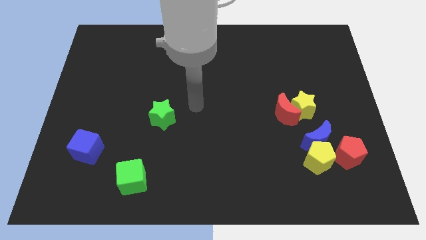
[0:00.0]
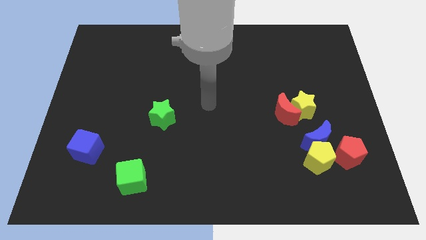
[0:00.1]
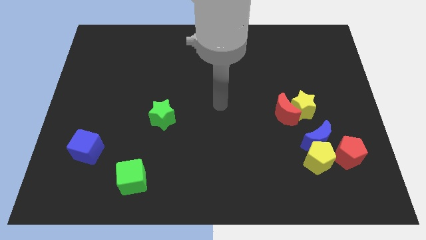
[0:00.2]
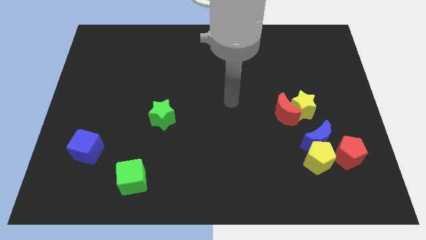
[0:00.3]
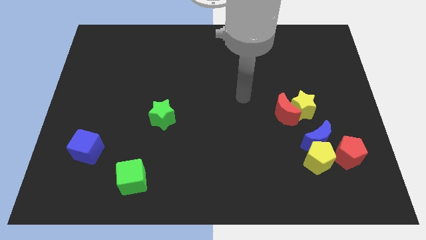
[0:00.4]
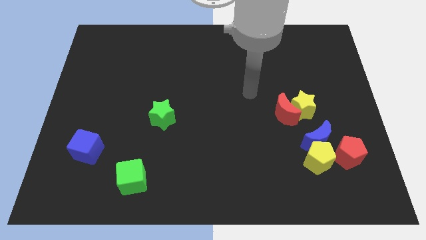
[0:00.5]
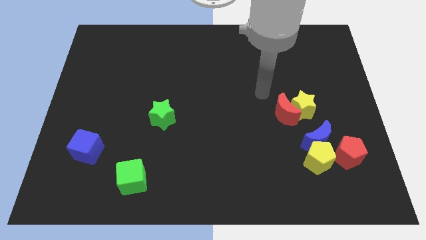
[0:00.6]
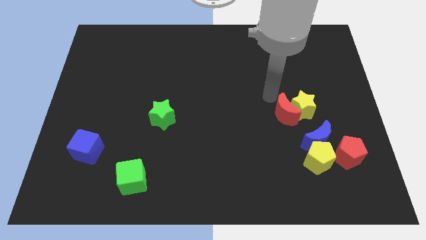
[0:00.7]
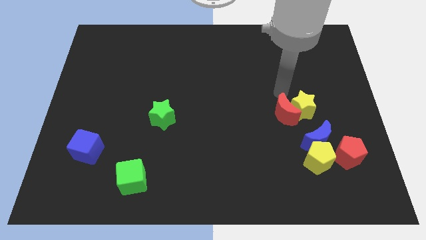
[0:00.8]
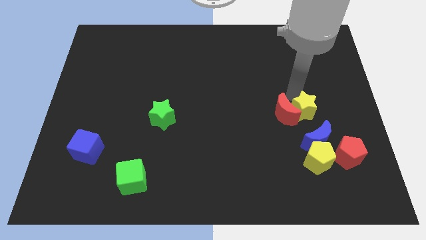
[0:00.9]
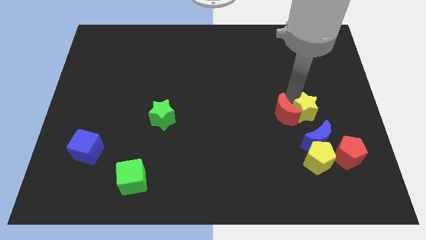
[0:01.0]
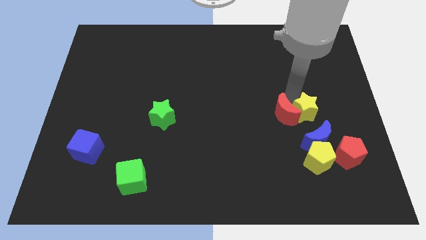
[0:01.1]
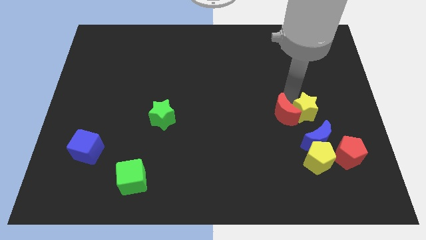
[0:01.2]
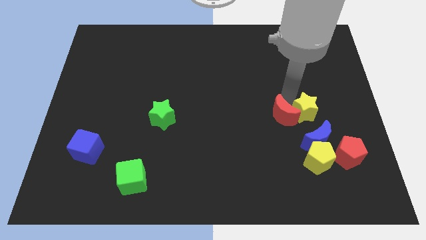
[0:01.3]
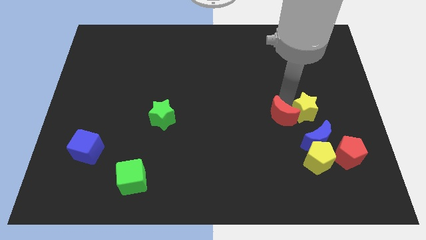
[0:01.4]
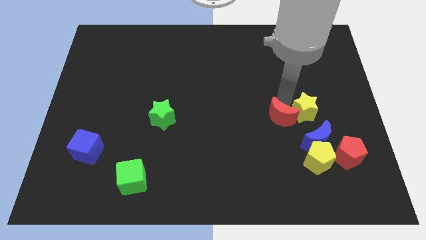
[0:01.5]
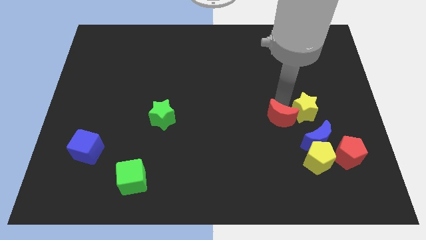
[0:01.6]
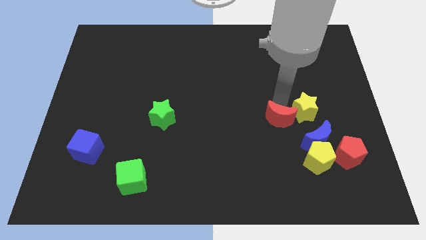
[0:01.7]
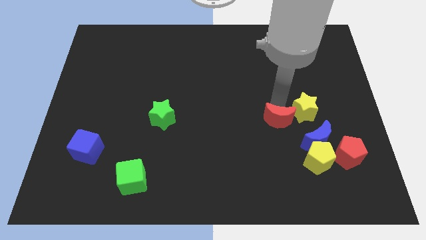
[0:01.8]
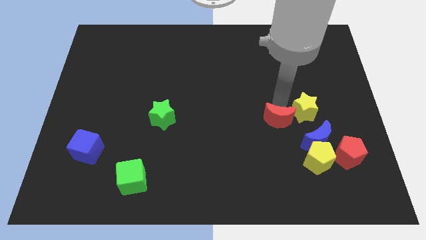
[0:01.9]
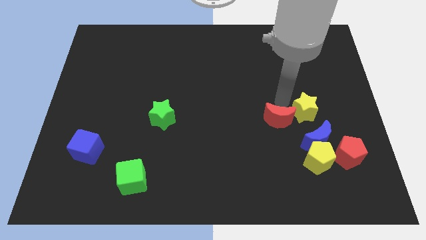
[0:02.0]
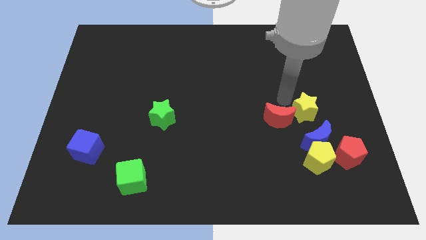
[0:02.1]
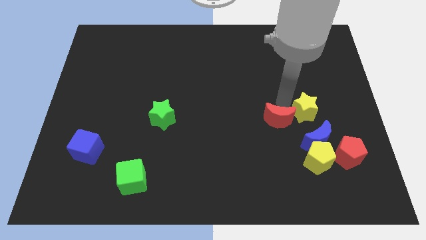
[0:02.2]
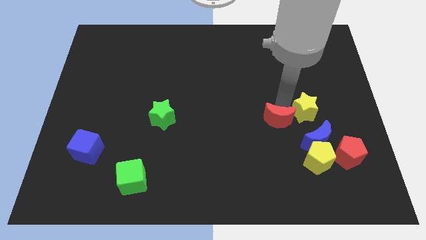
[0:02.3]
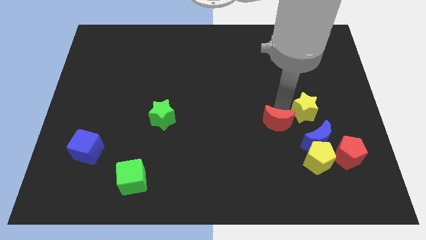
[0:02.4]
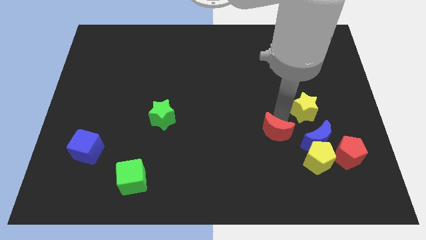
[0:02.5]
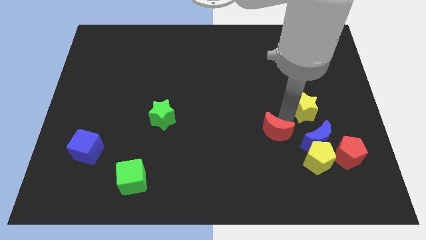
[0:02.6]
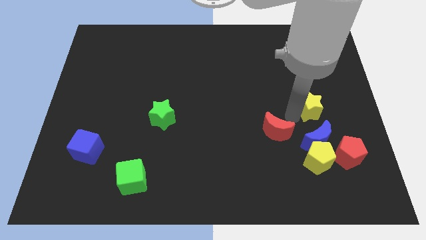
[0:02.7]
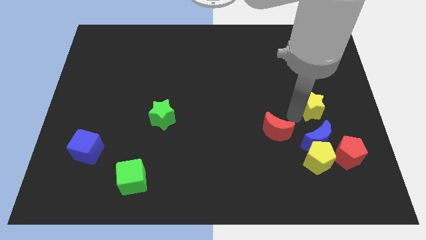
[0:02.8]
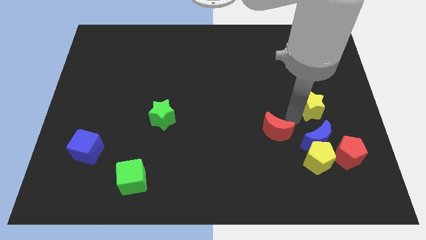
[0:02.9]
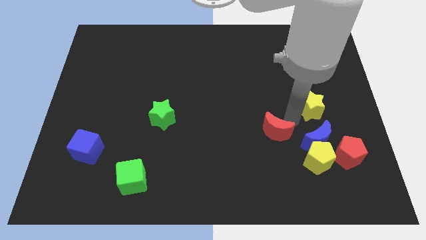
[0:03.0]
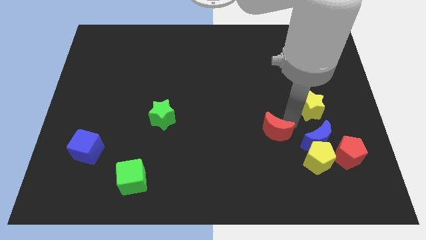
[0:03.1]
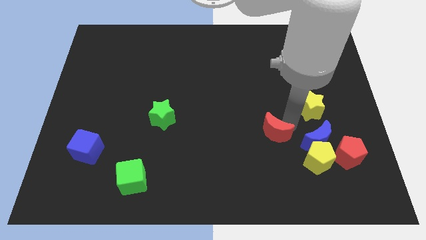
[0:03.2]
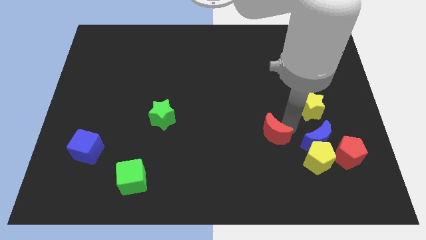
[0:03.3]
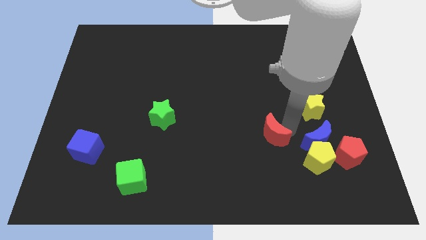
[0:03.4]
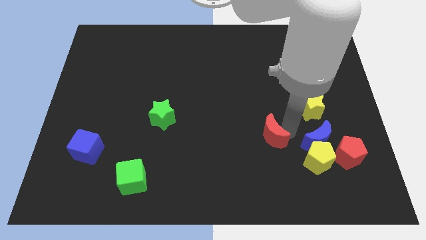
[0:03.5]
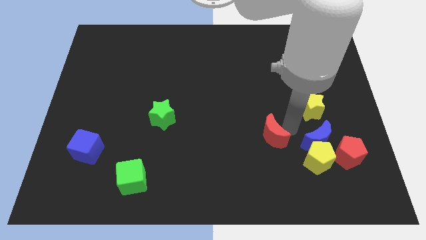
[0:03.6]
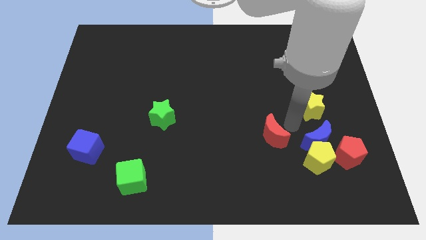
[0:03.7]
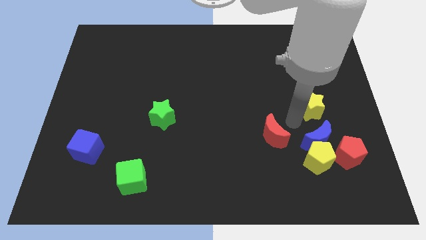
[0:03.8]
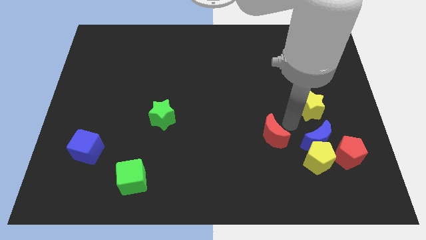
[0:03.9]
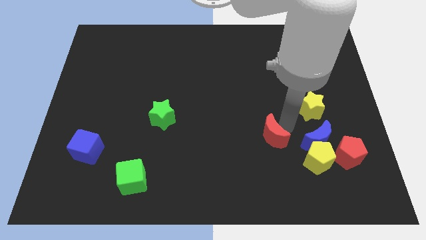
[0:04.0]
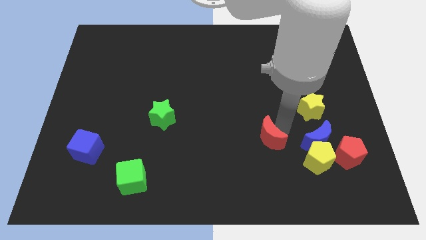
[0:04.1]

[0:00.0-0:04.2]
slide the red moon a bit downwards and left

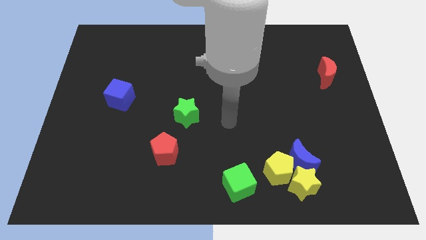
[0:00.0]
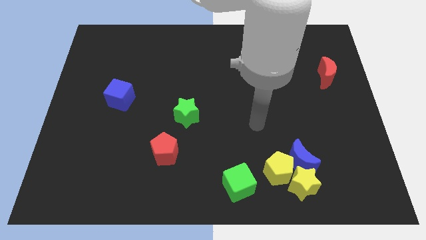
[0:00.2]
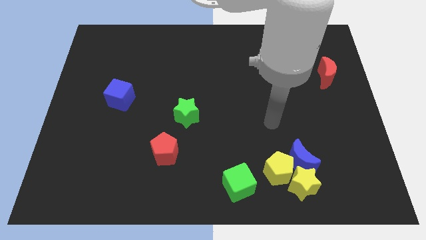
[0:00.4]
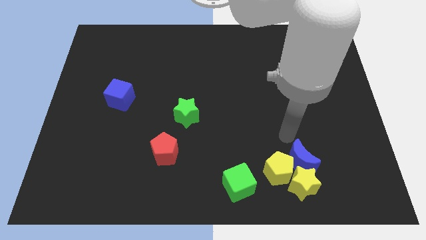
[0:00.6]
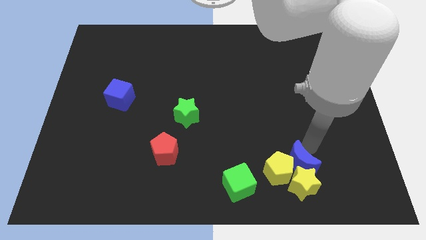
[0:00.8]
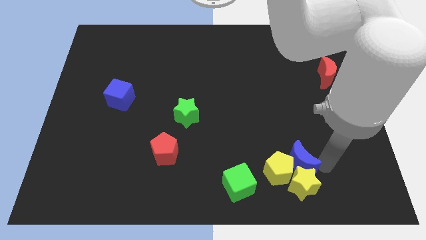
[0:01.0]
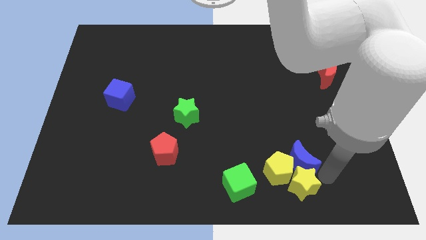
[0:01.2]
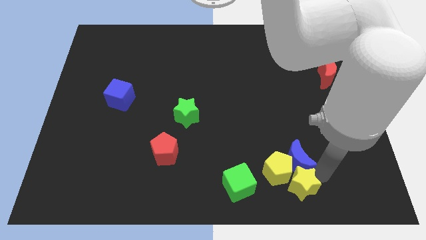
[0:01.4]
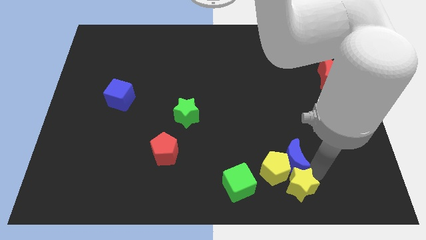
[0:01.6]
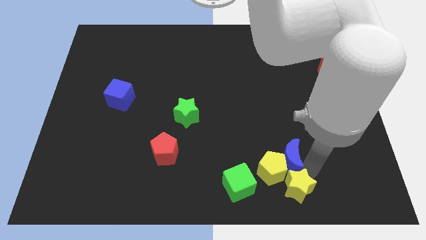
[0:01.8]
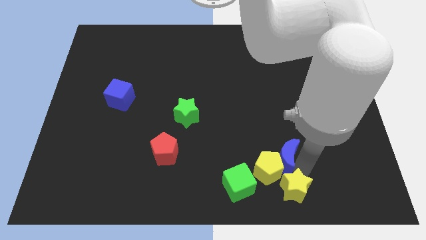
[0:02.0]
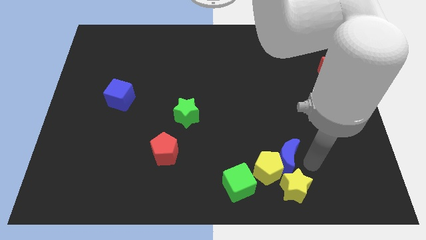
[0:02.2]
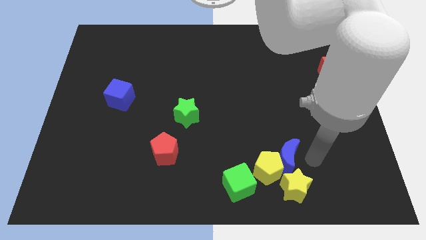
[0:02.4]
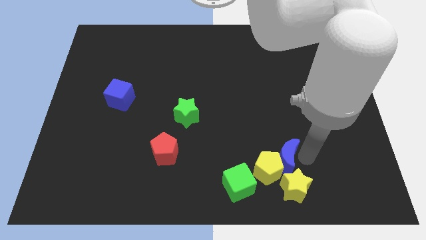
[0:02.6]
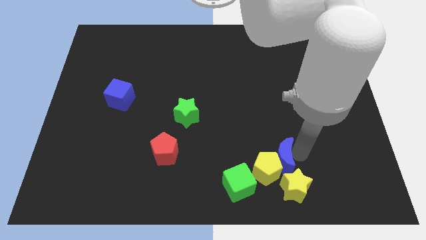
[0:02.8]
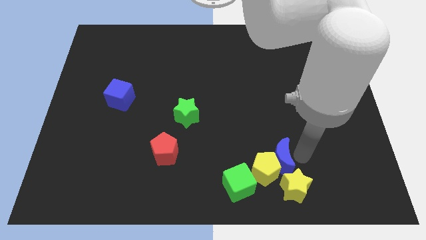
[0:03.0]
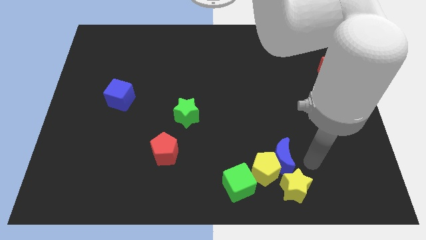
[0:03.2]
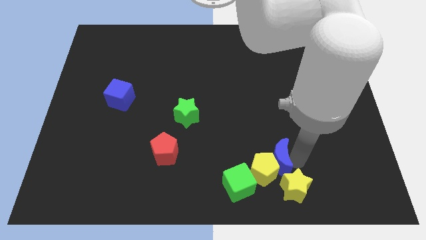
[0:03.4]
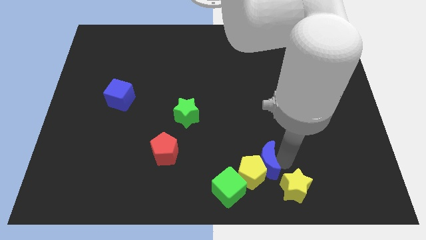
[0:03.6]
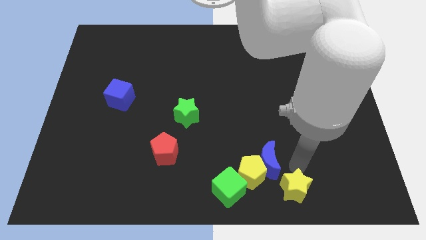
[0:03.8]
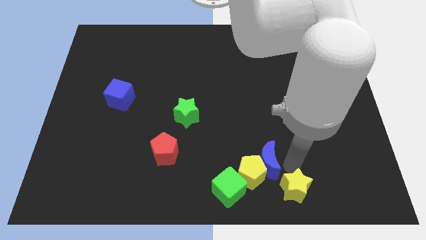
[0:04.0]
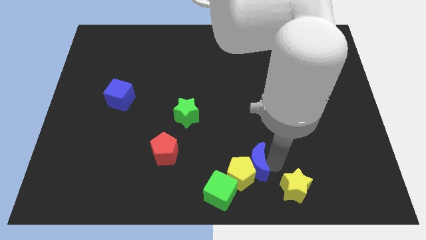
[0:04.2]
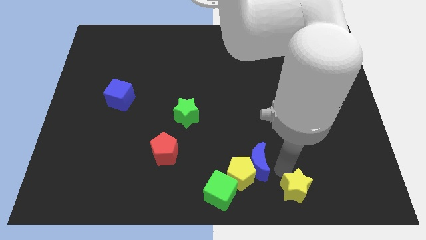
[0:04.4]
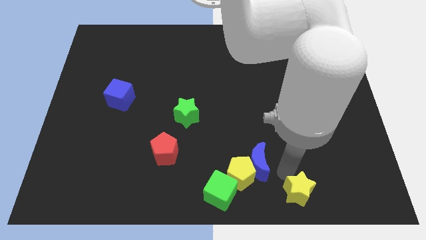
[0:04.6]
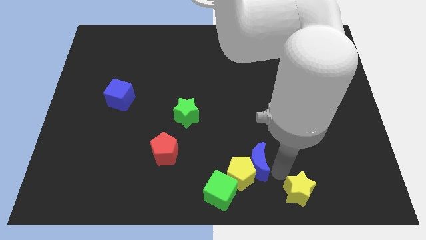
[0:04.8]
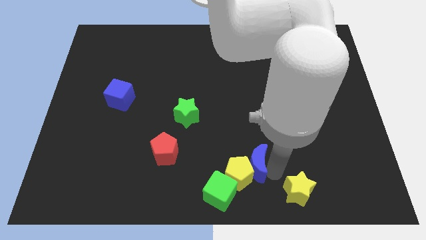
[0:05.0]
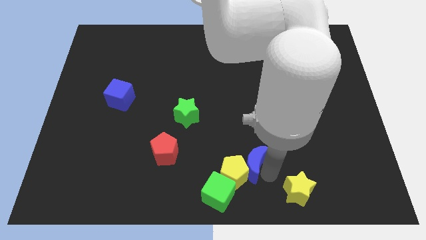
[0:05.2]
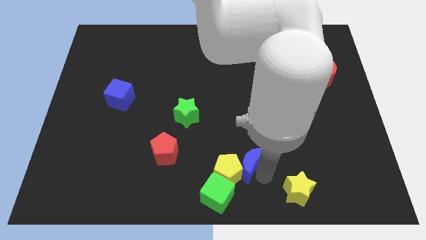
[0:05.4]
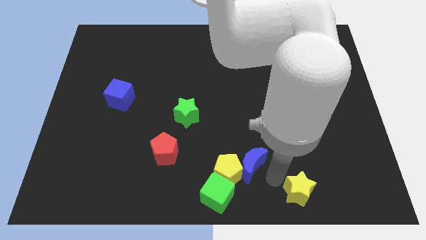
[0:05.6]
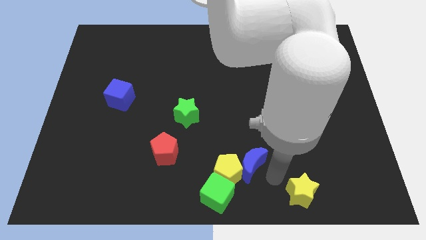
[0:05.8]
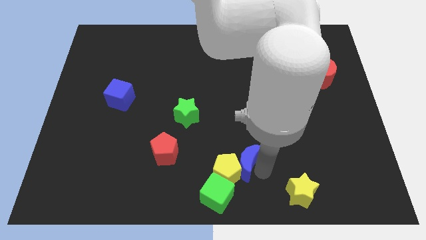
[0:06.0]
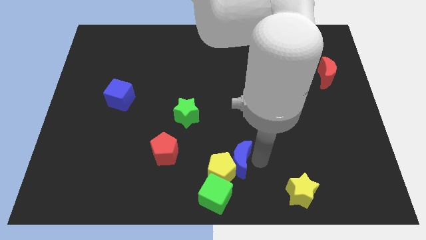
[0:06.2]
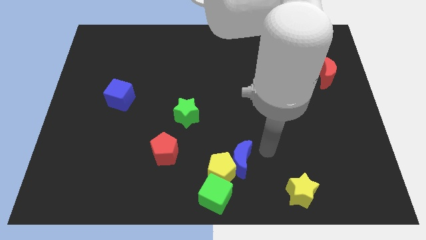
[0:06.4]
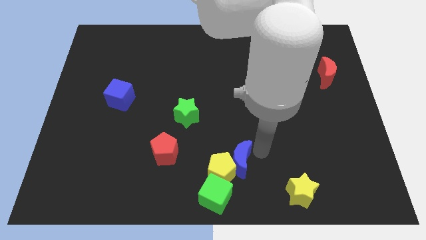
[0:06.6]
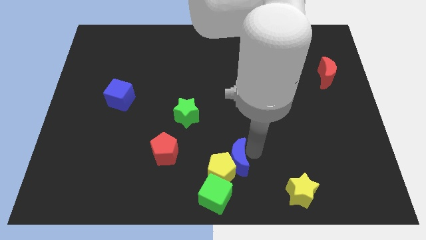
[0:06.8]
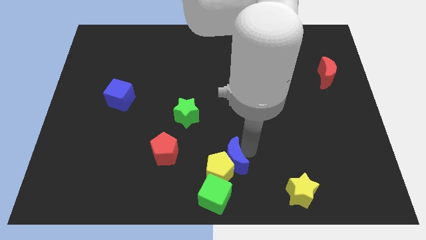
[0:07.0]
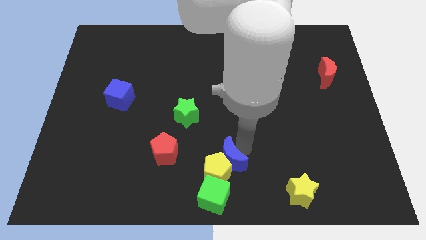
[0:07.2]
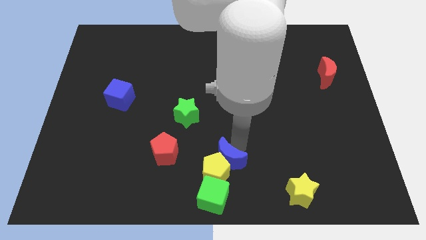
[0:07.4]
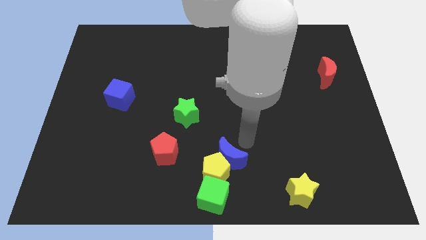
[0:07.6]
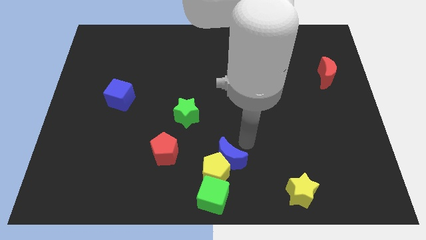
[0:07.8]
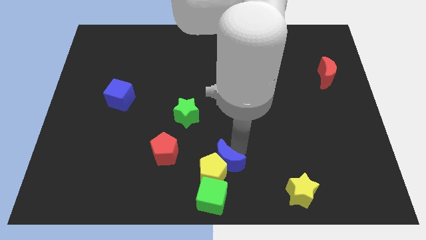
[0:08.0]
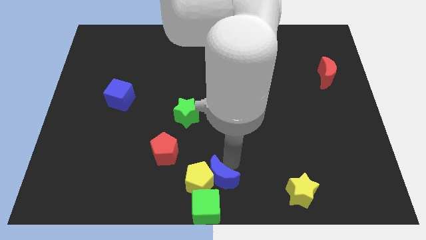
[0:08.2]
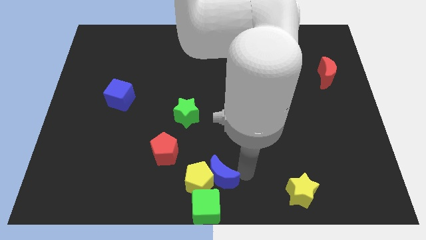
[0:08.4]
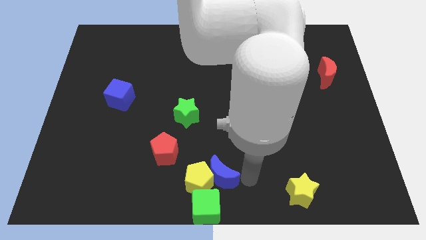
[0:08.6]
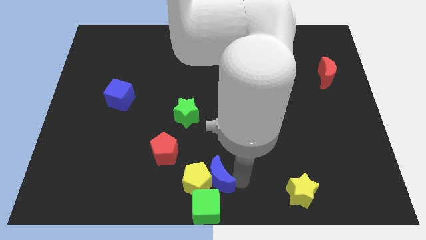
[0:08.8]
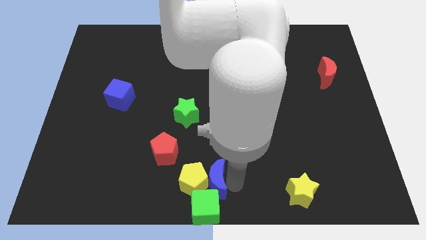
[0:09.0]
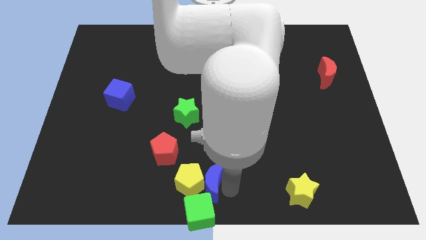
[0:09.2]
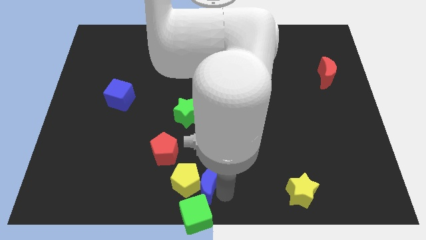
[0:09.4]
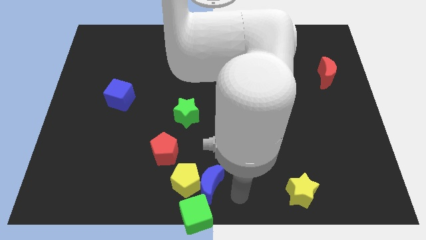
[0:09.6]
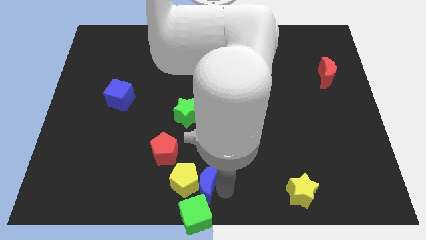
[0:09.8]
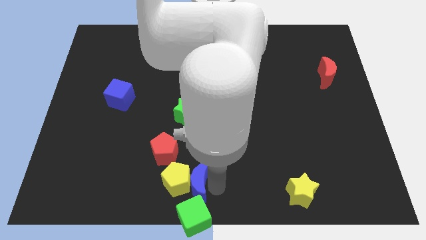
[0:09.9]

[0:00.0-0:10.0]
slide the blue moon left
